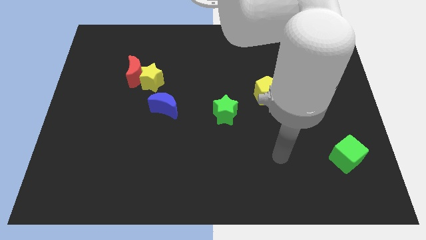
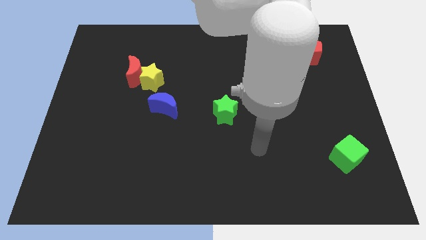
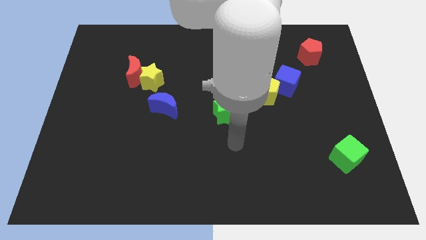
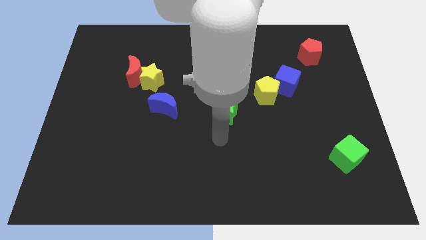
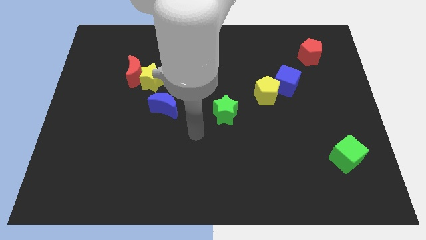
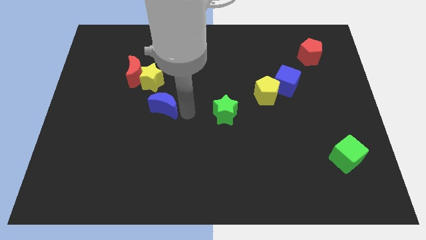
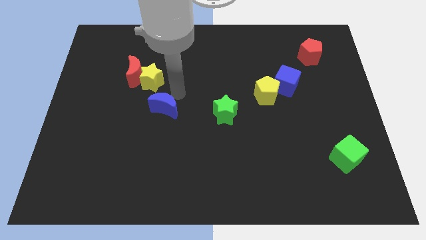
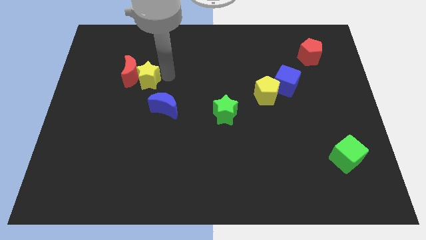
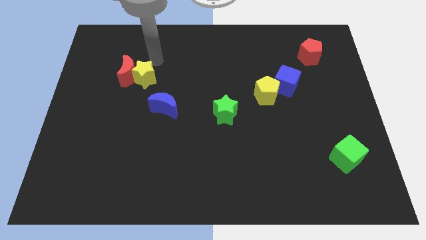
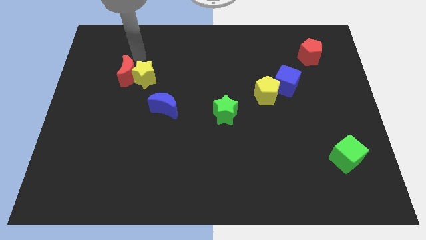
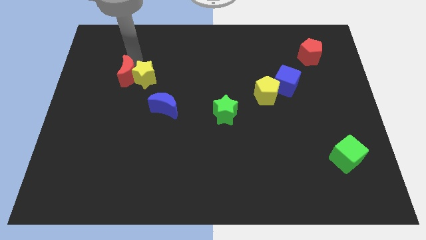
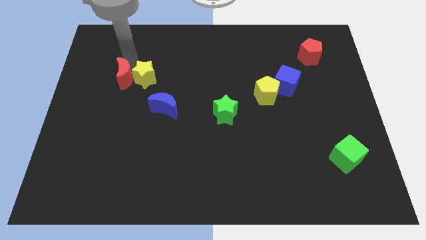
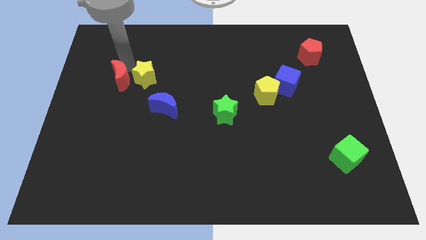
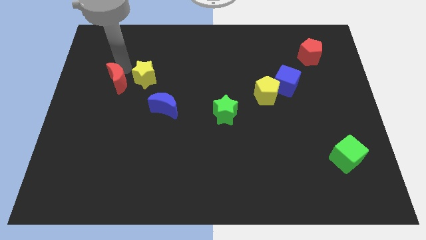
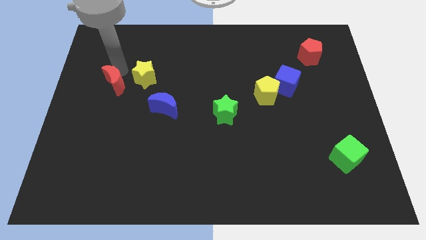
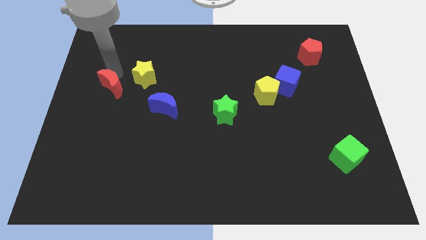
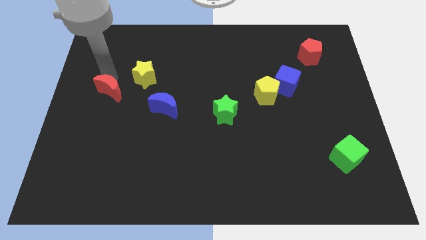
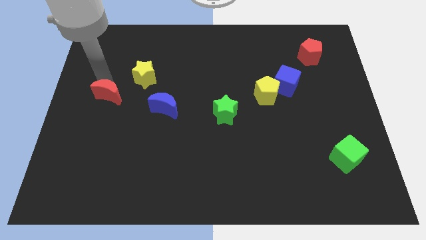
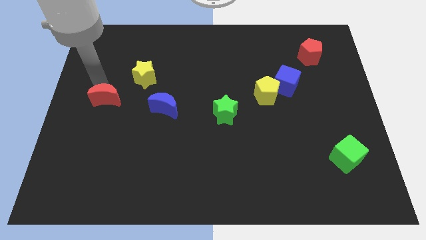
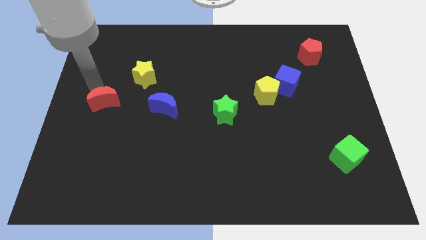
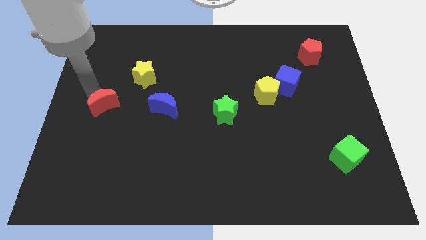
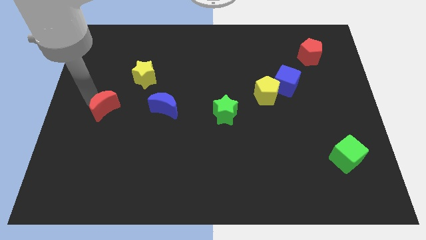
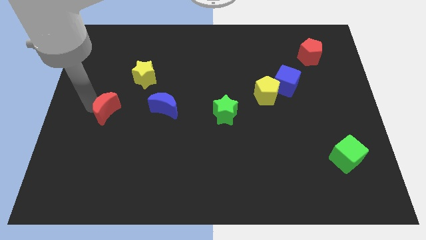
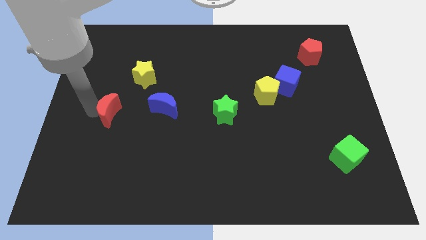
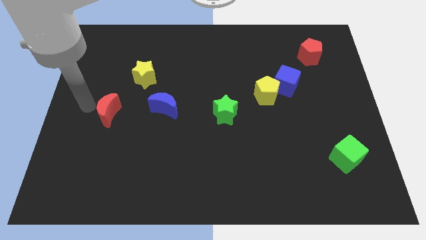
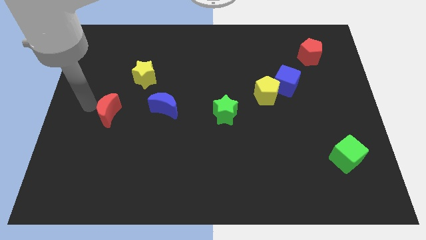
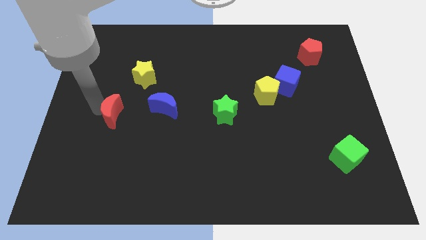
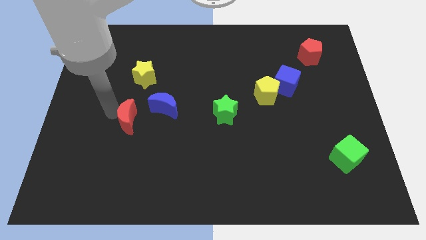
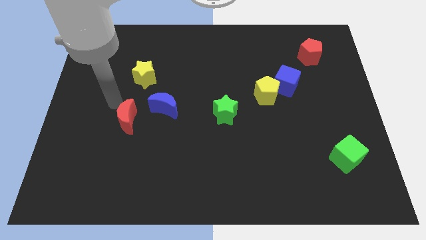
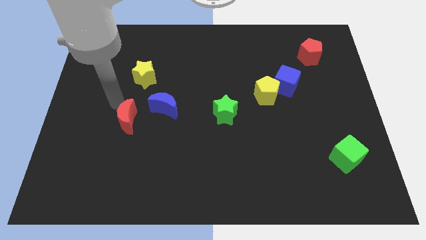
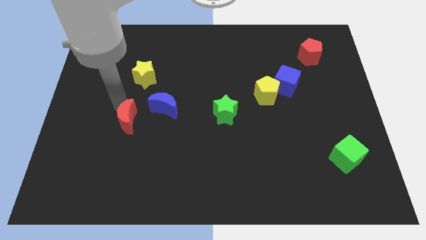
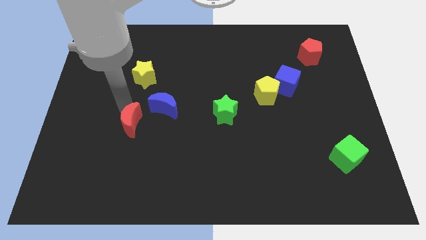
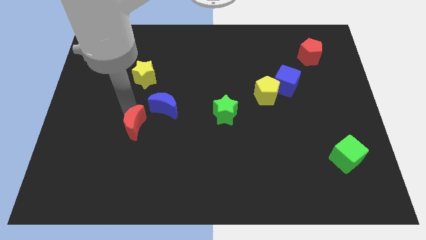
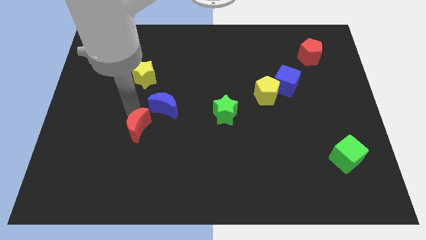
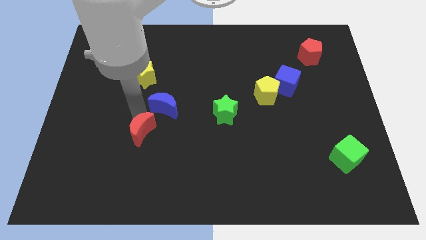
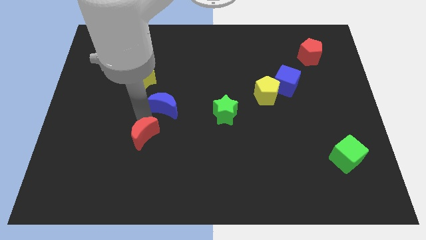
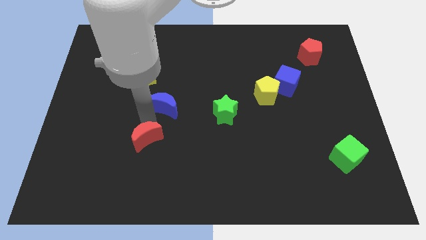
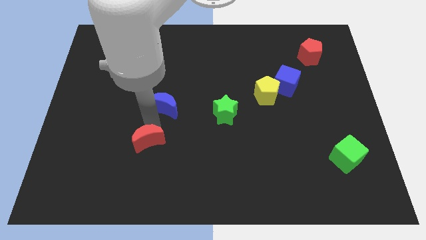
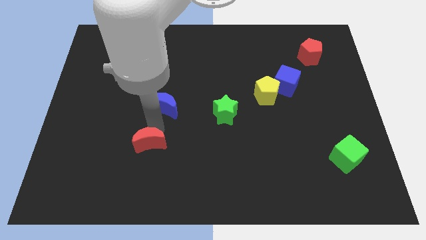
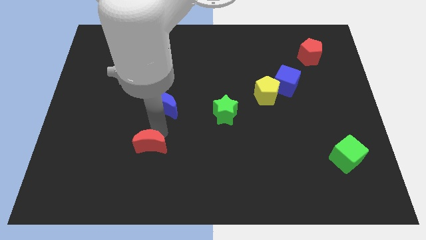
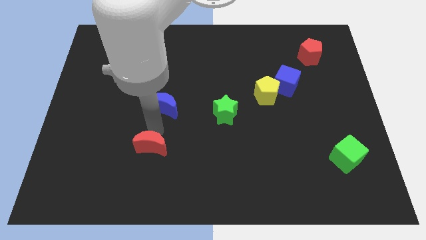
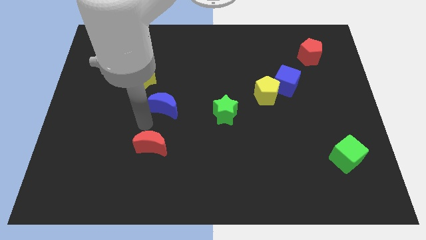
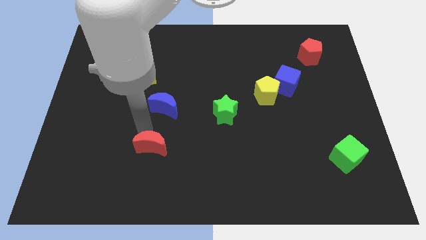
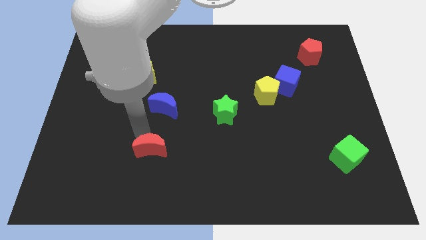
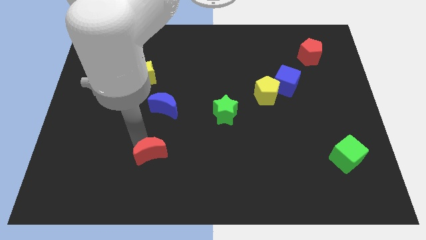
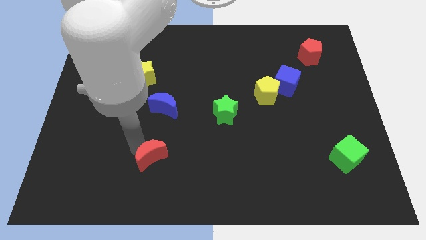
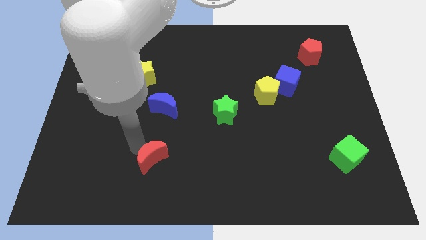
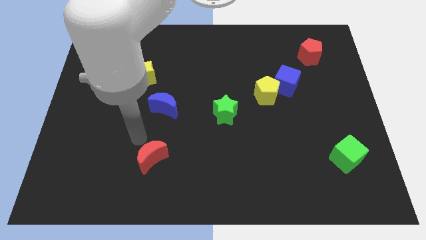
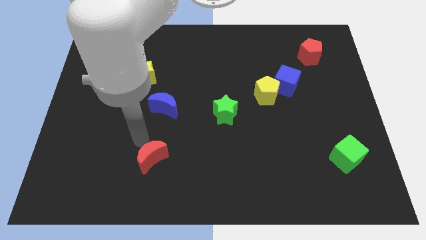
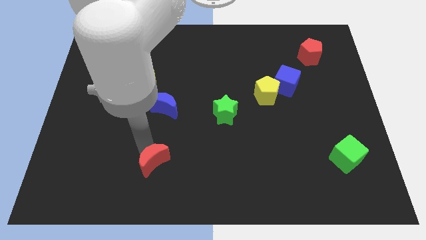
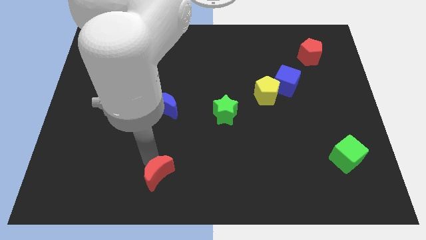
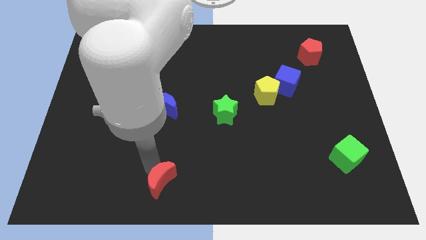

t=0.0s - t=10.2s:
move the red moon to the bottom side

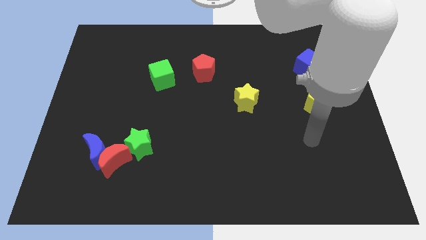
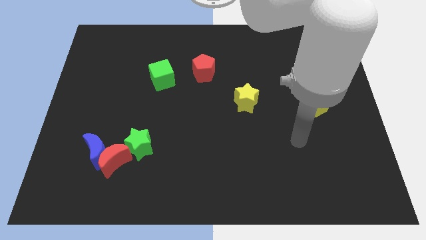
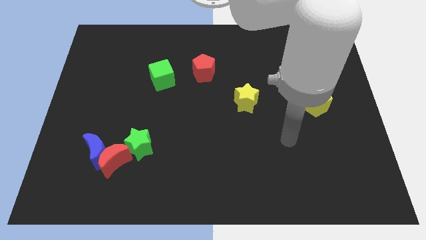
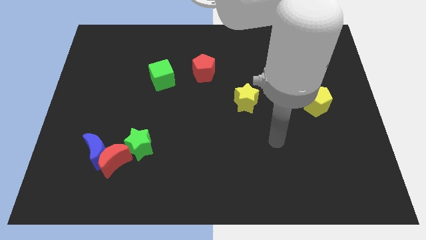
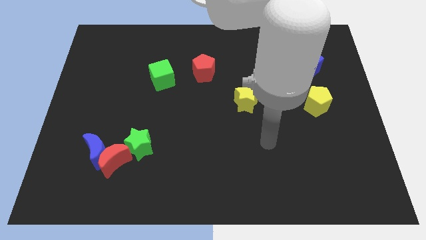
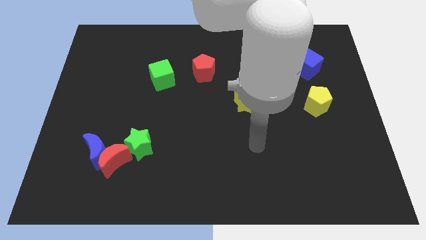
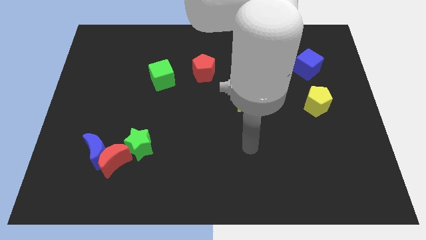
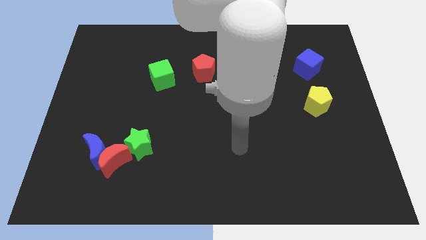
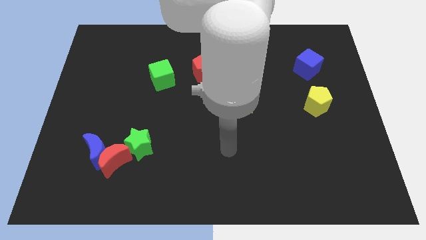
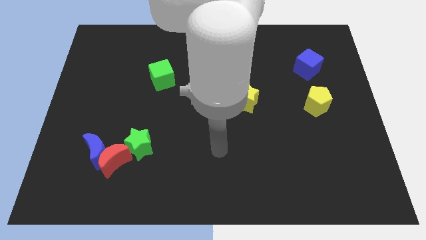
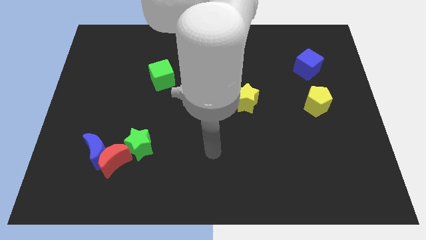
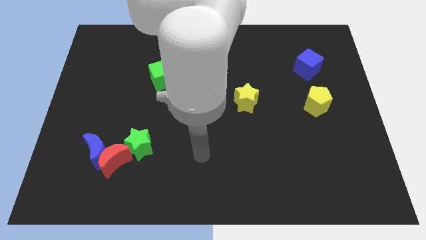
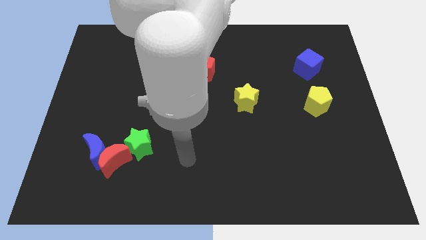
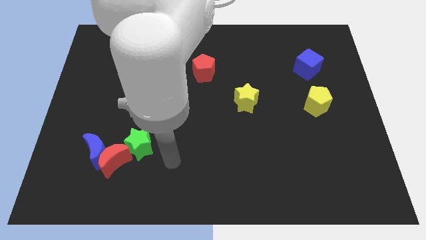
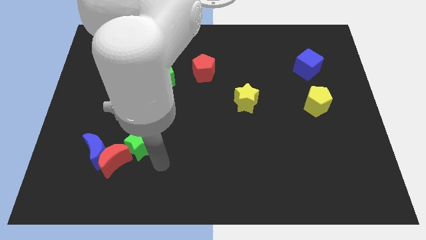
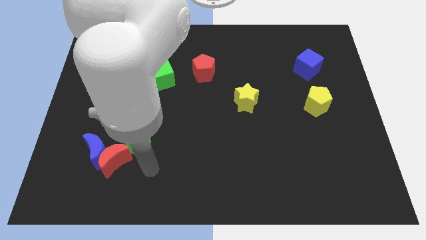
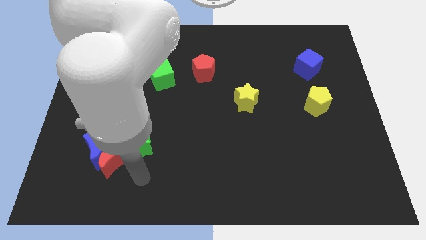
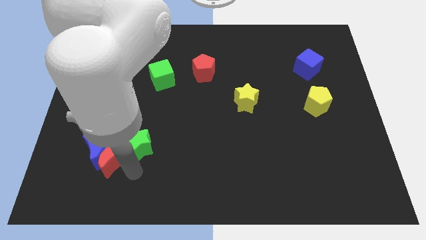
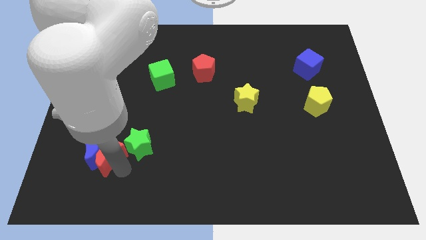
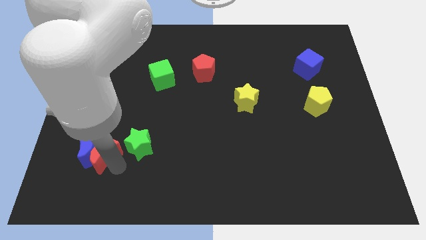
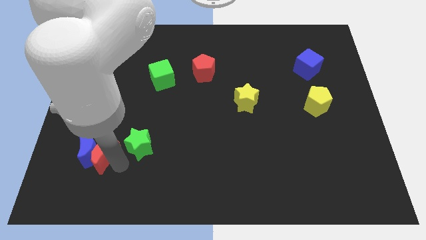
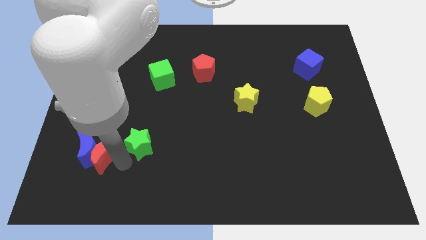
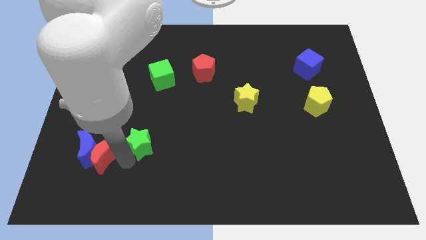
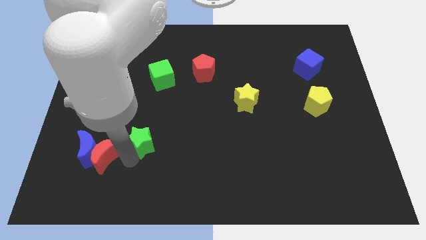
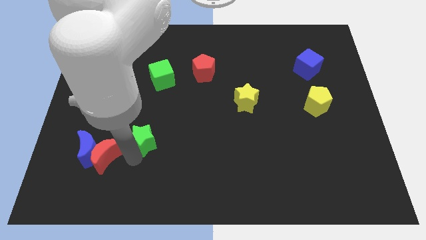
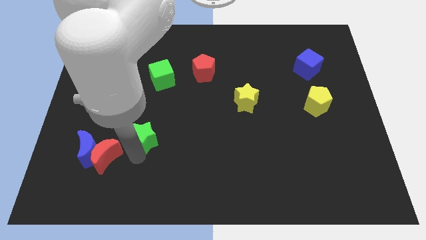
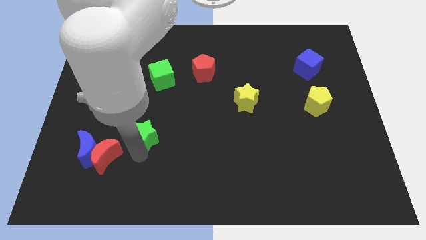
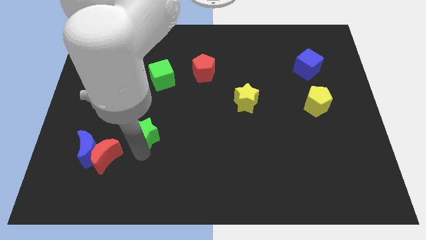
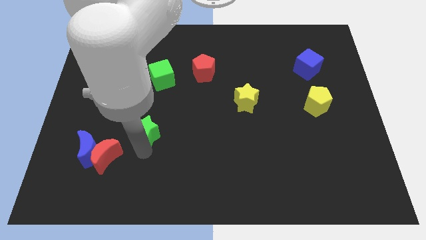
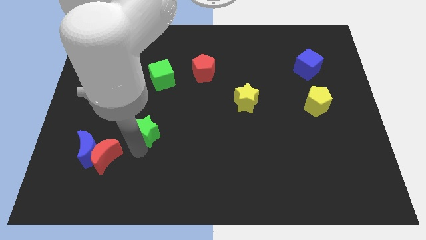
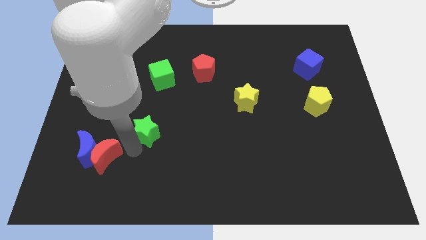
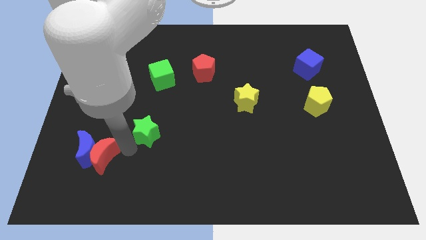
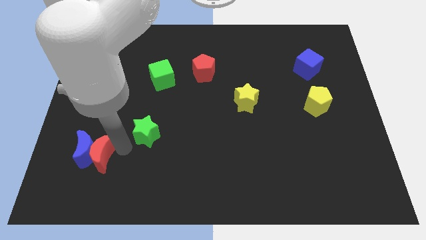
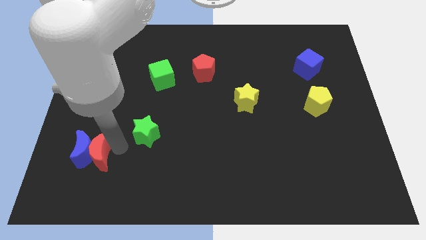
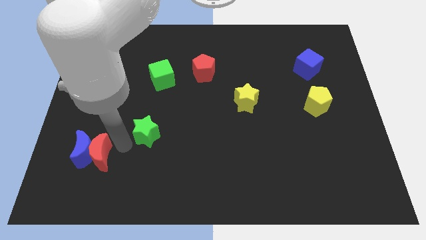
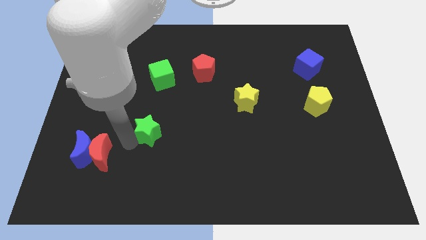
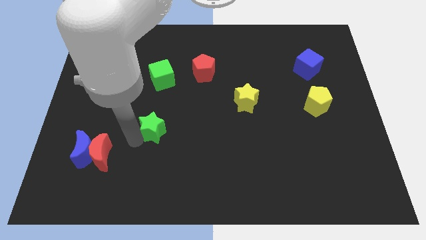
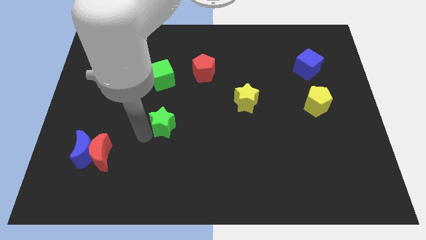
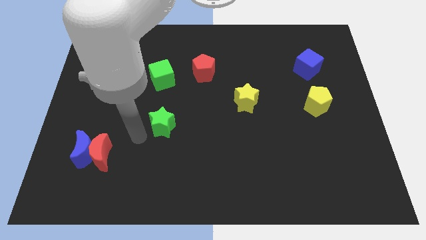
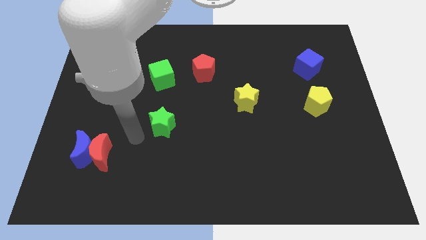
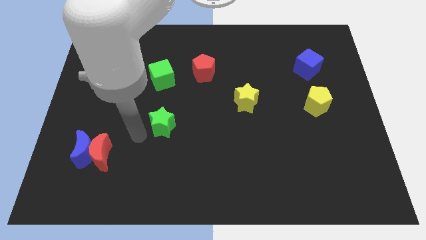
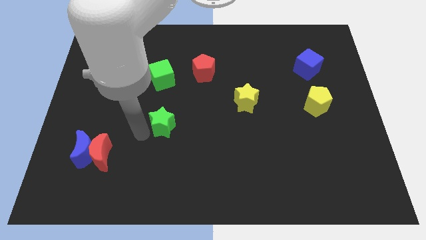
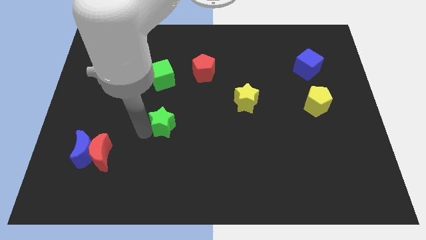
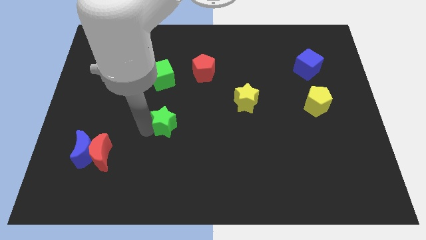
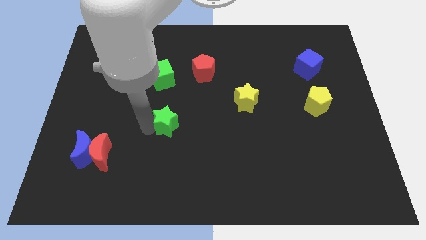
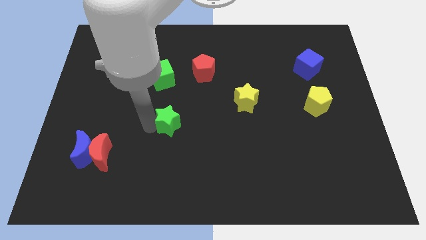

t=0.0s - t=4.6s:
push the green star to the center of the board
